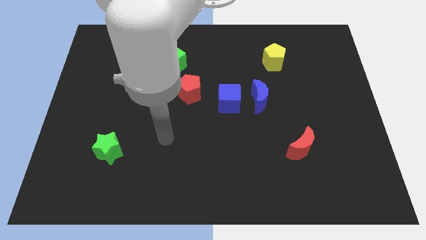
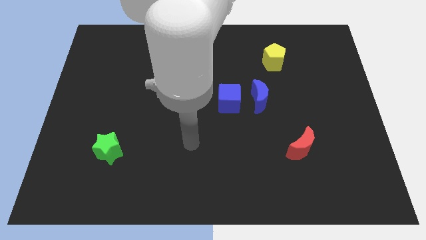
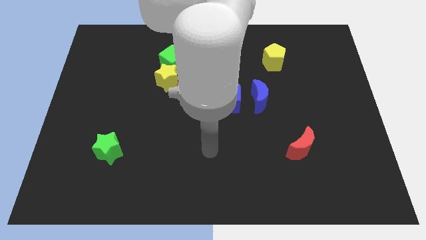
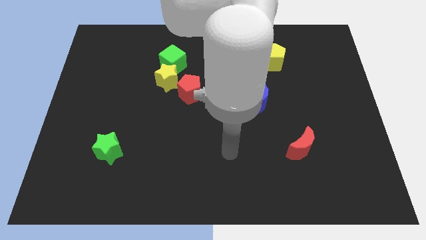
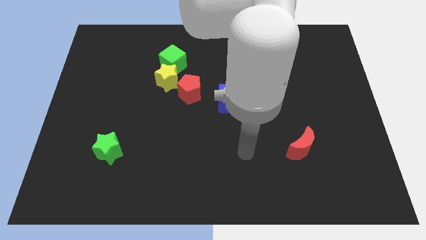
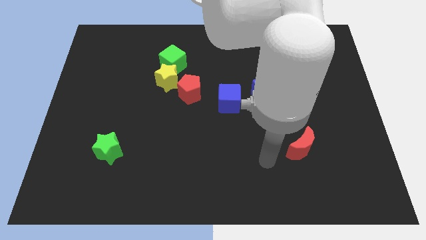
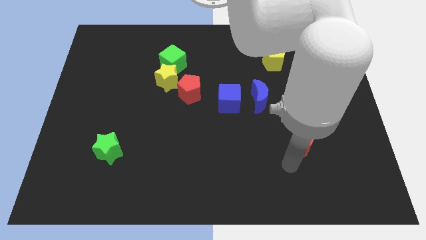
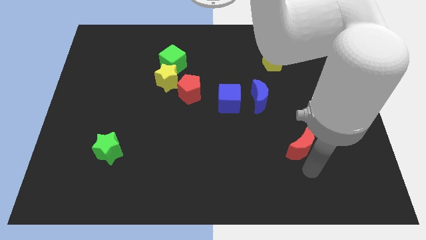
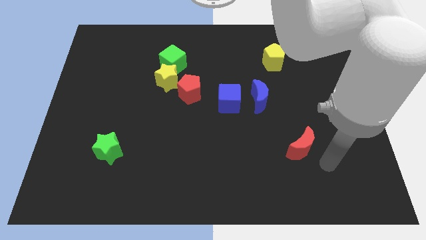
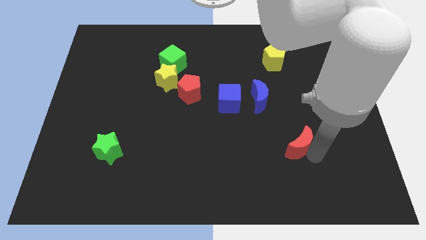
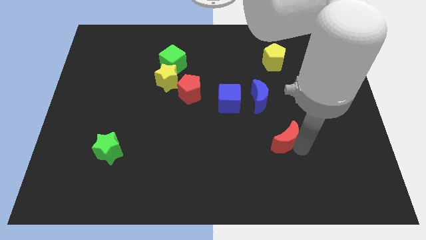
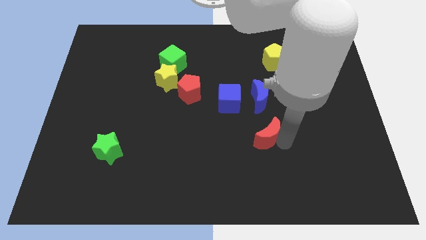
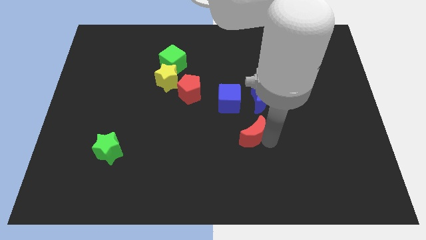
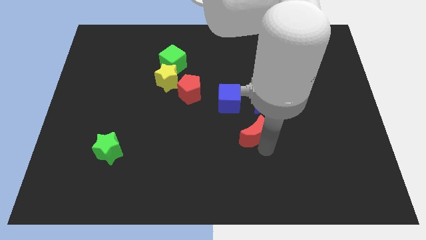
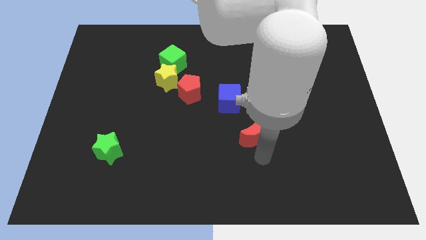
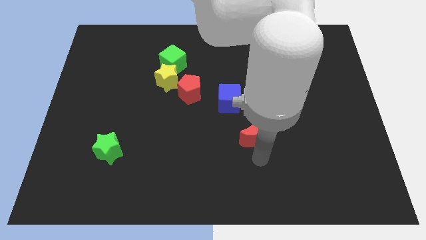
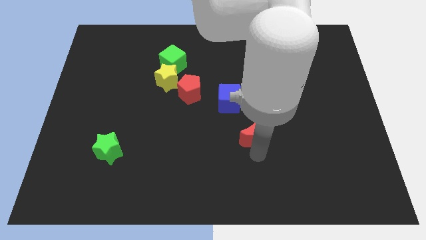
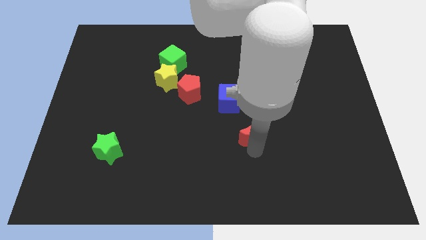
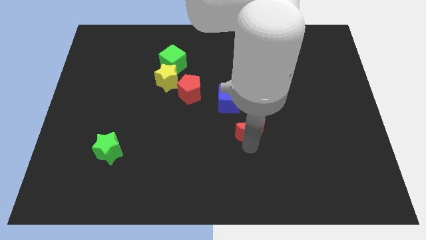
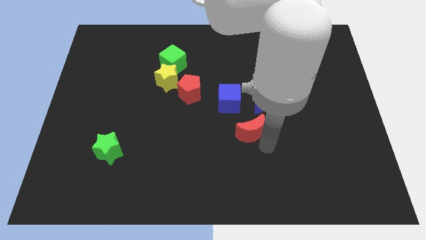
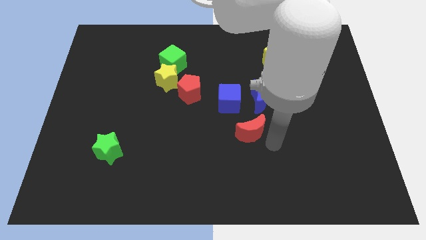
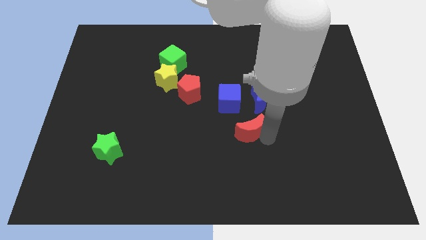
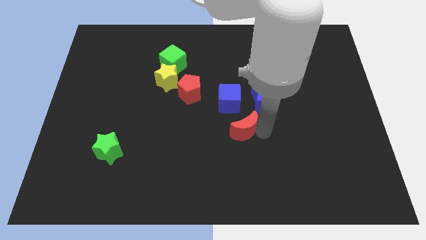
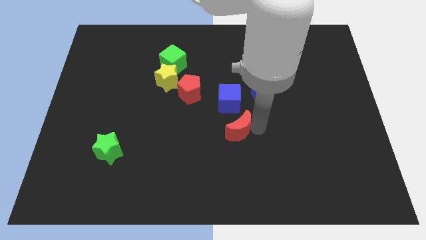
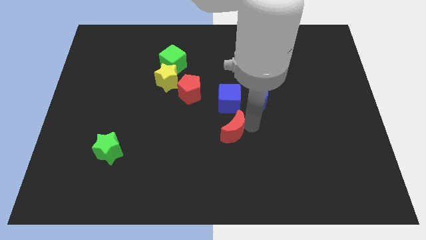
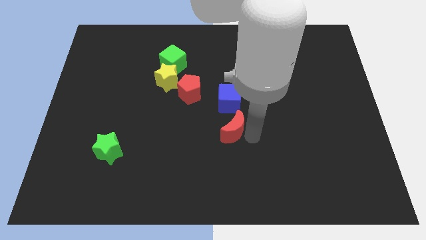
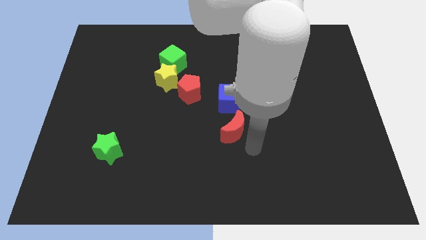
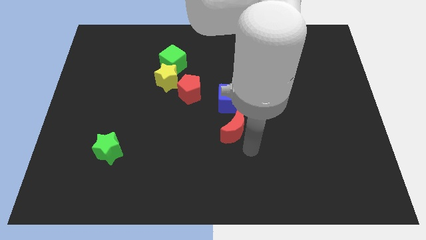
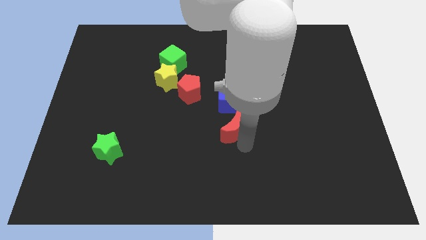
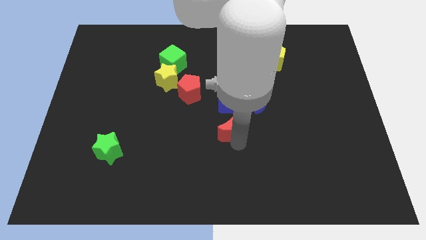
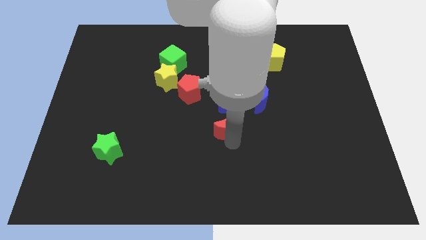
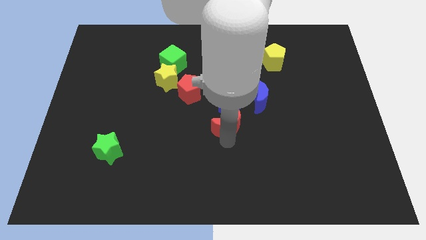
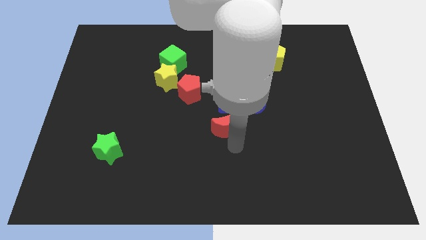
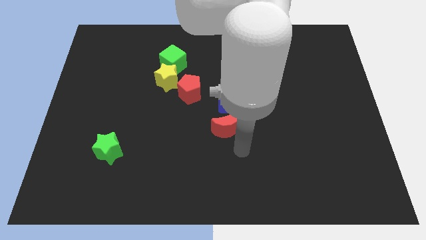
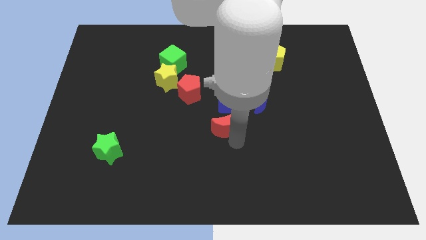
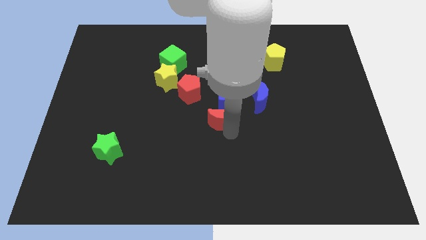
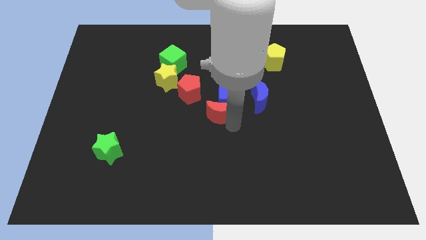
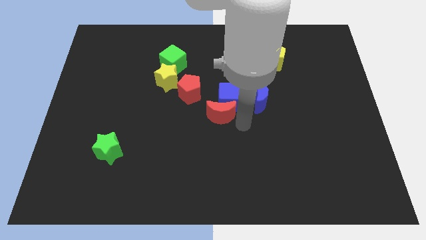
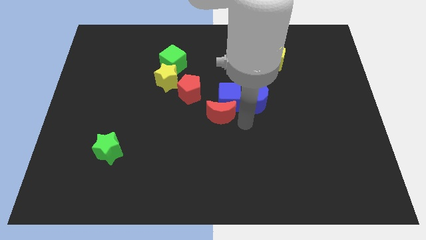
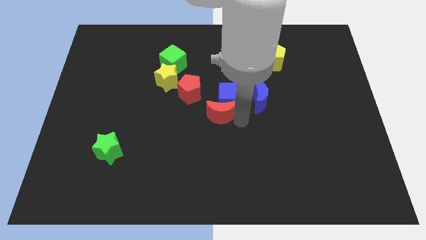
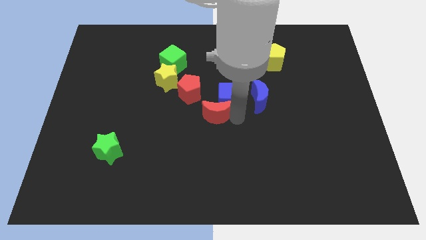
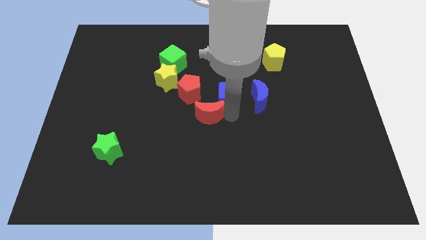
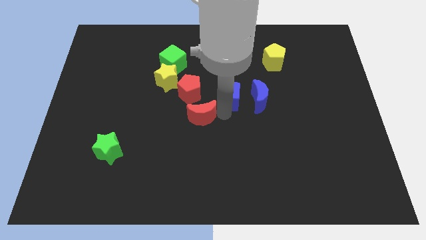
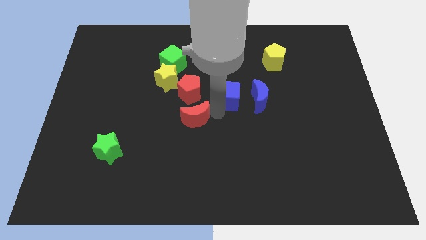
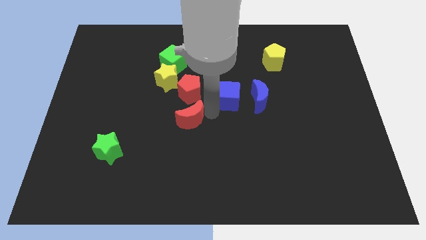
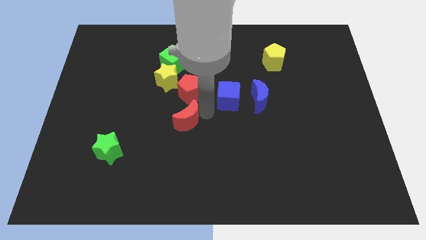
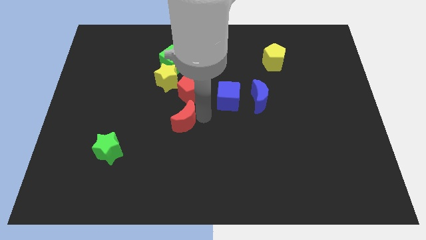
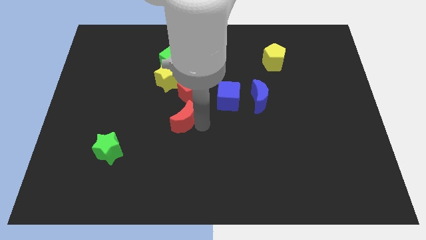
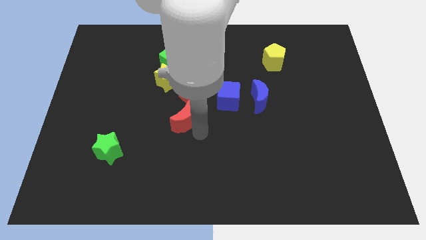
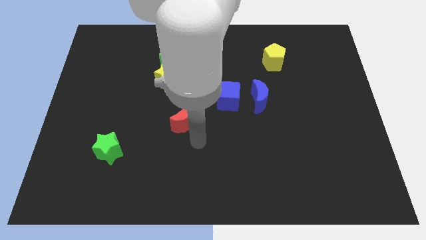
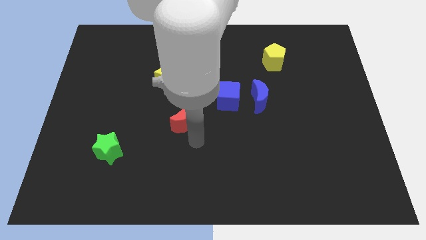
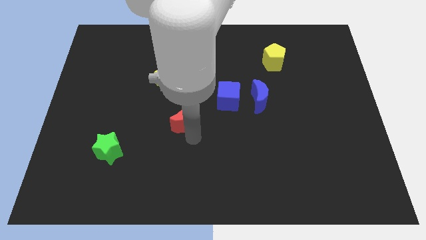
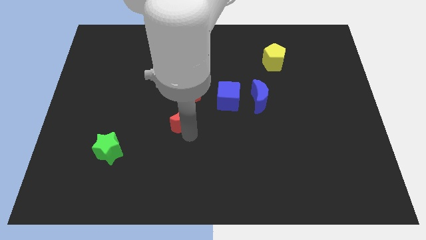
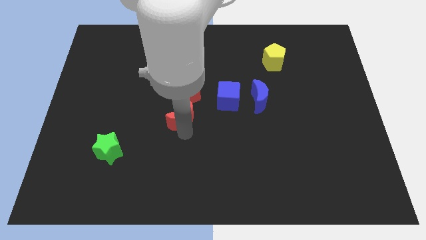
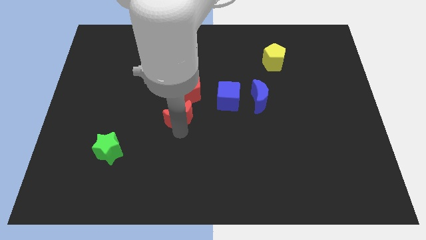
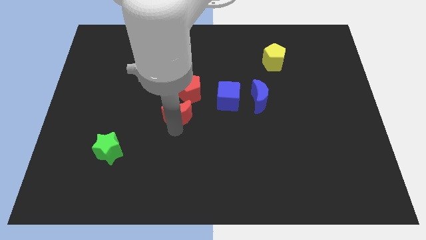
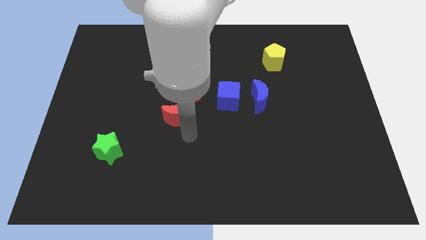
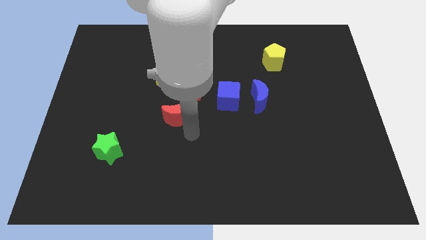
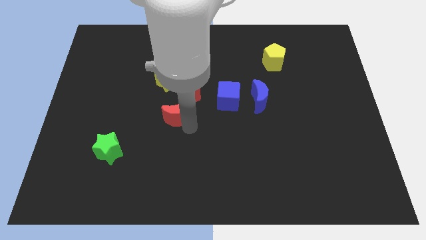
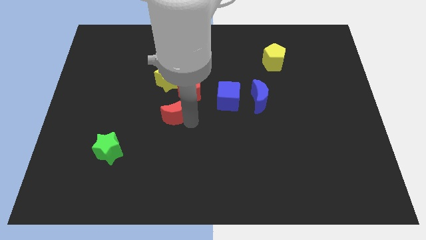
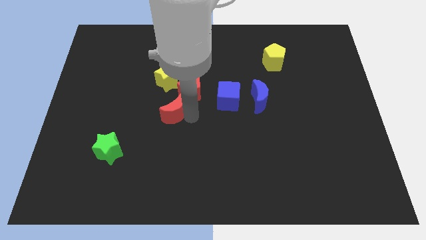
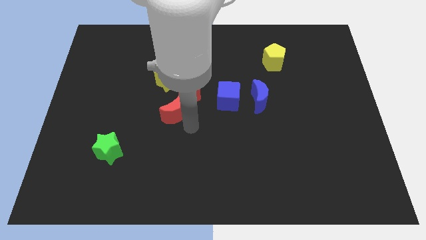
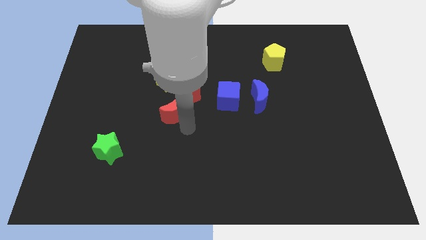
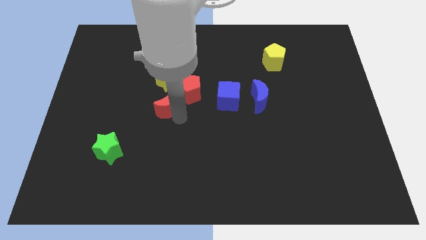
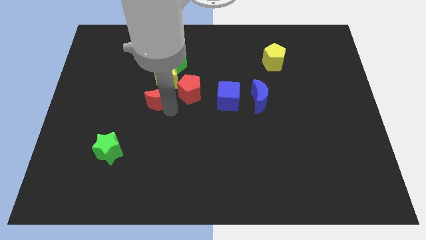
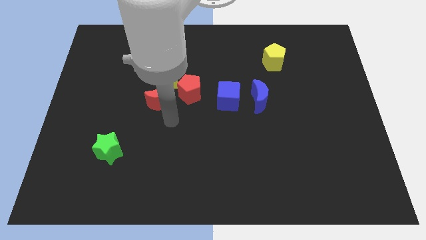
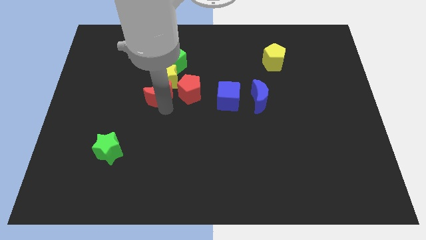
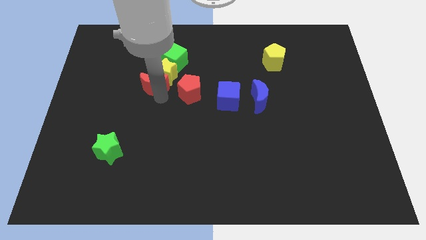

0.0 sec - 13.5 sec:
move the red moon diagonally down and to the left of the green cube

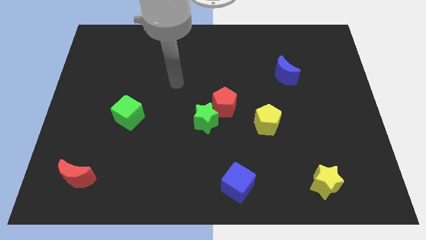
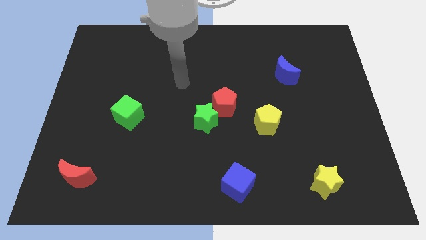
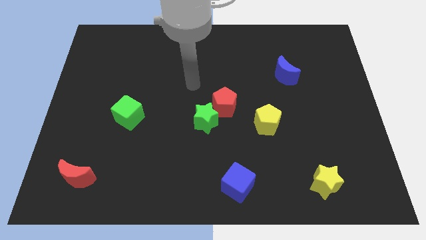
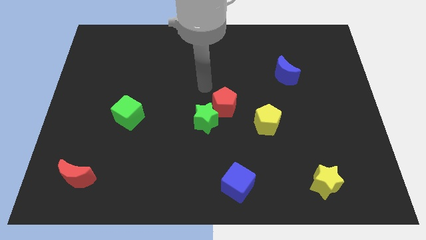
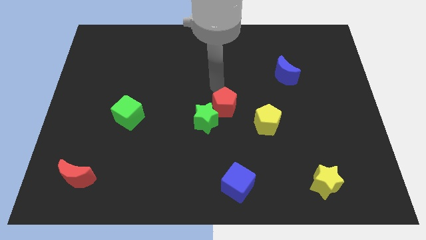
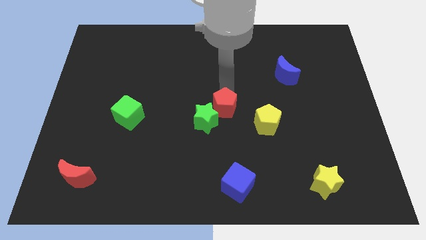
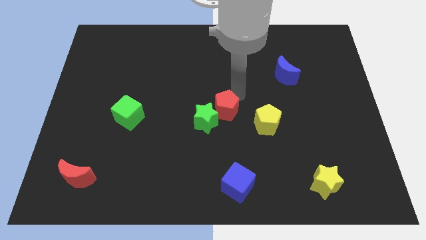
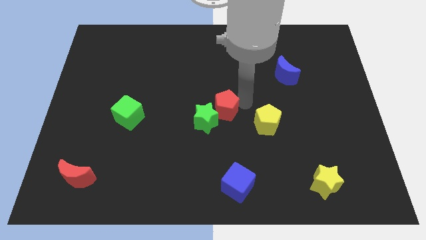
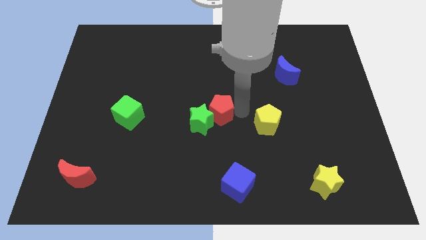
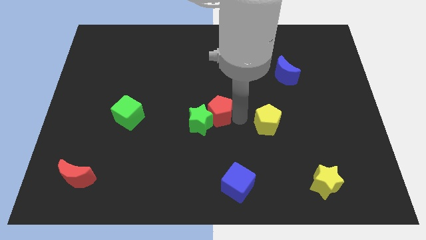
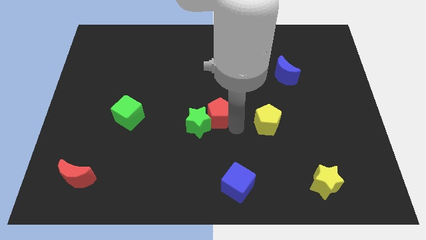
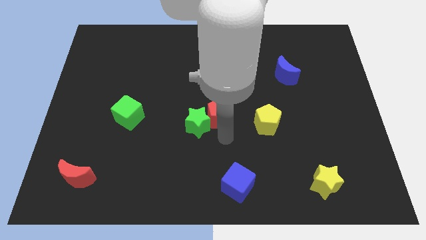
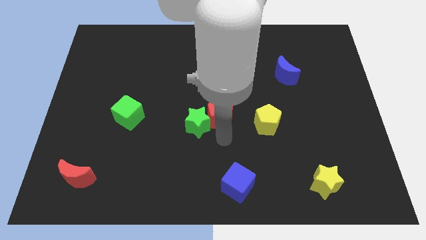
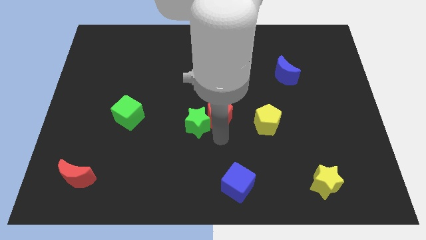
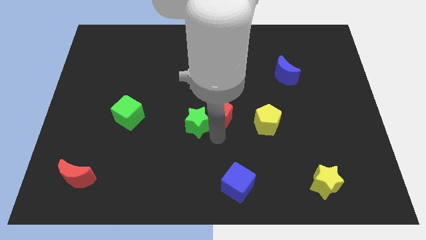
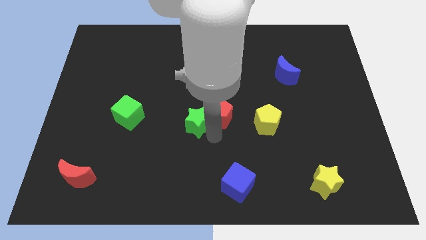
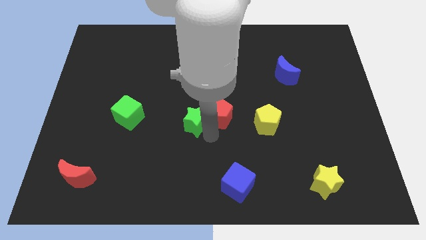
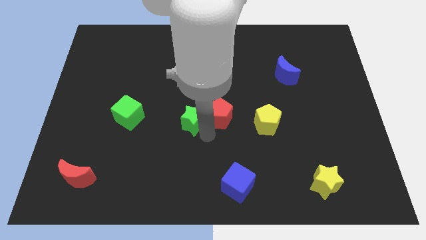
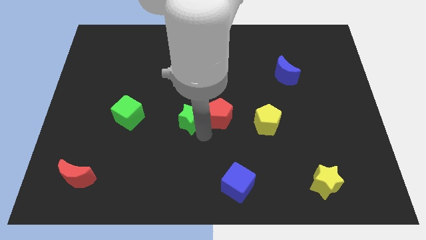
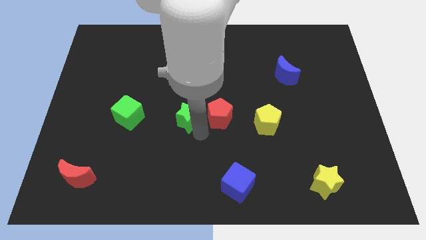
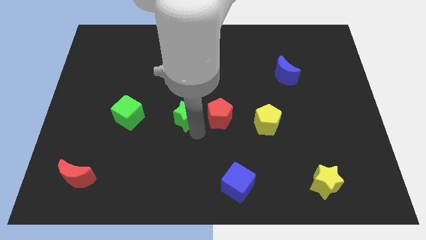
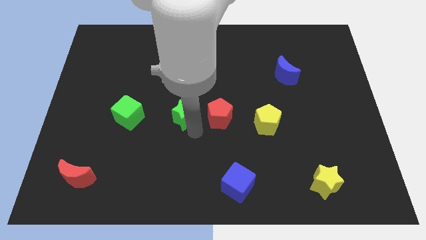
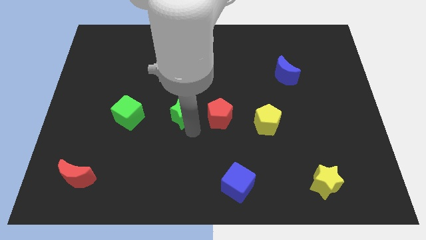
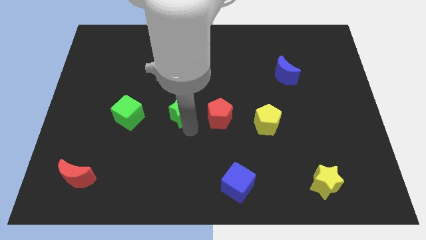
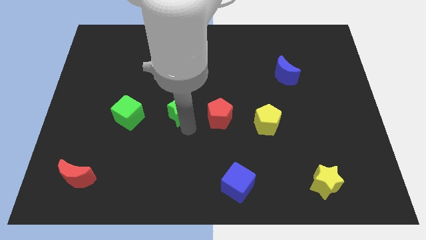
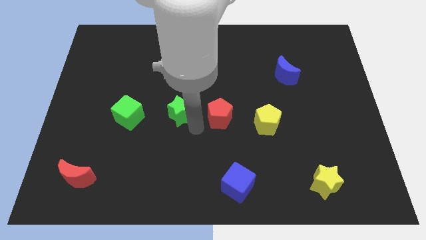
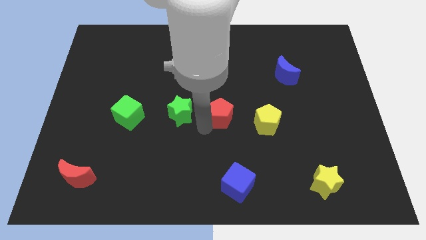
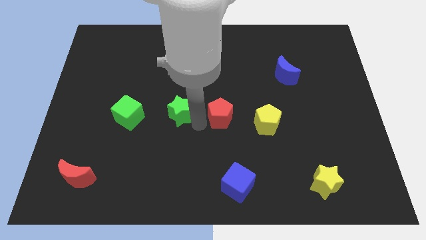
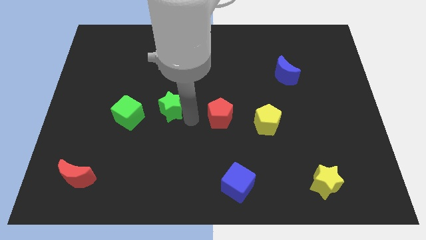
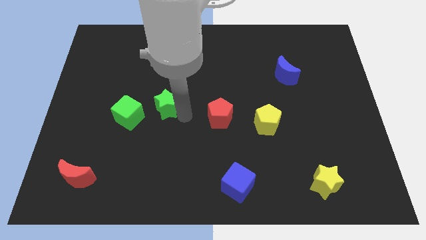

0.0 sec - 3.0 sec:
put the green star to the top right of the green cube
